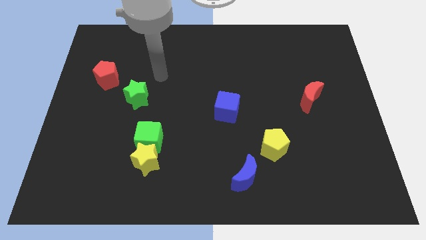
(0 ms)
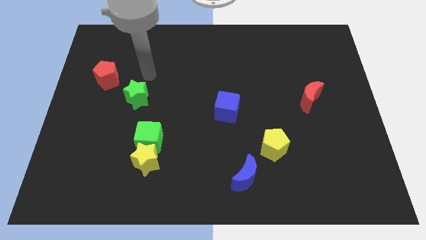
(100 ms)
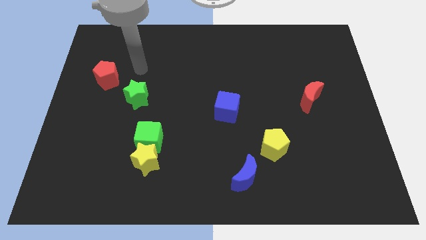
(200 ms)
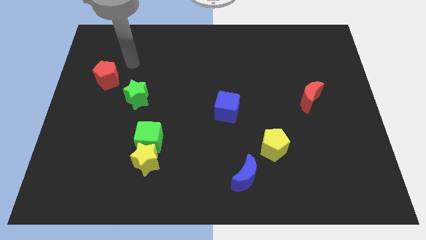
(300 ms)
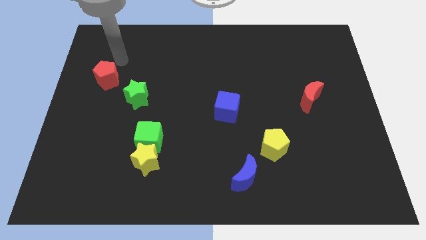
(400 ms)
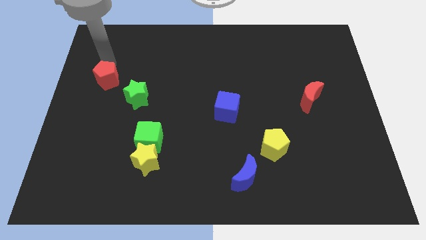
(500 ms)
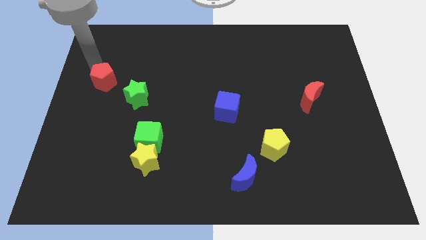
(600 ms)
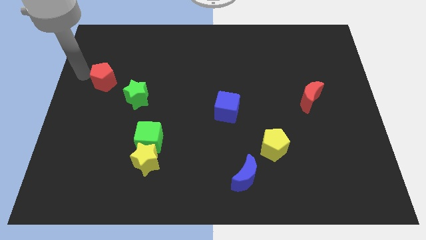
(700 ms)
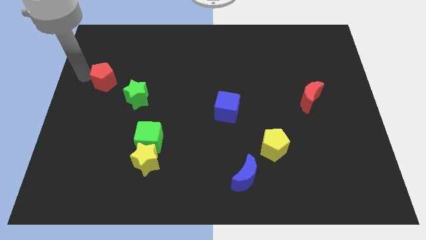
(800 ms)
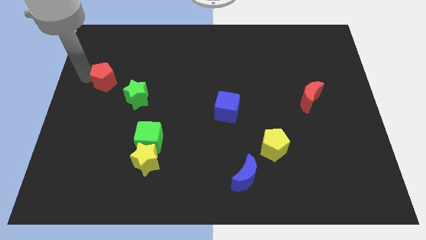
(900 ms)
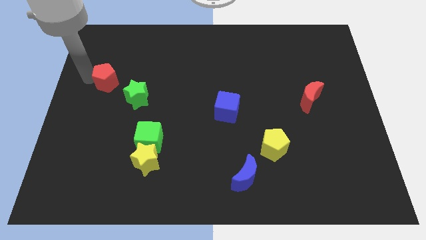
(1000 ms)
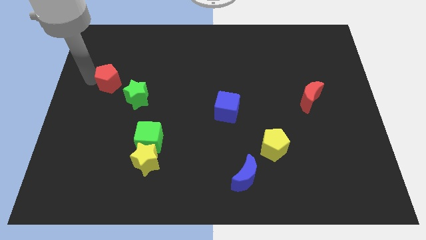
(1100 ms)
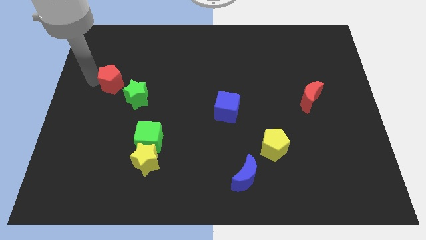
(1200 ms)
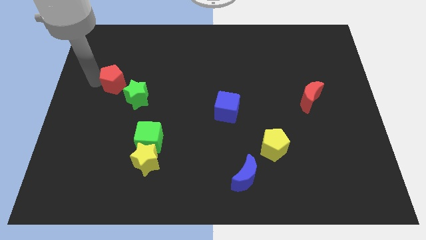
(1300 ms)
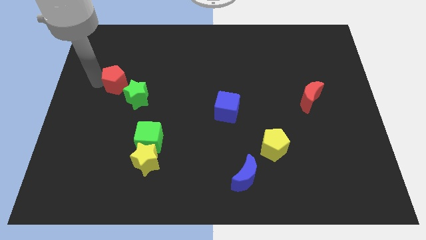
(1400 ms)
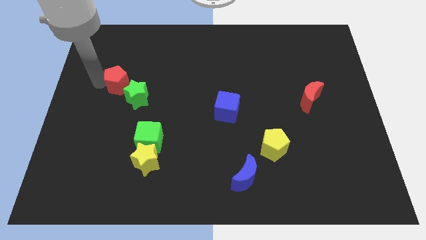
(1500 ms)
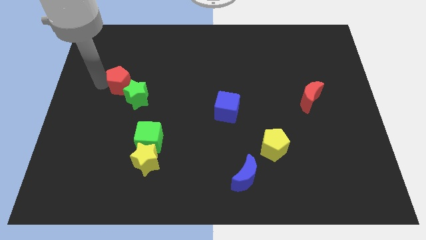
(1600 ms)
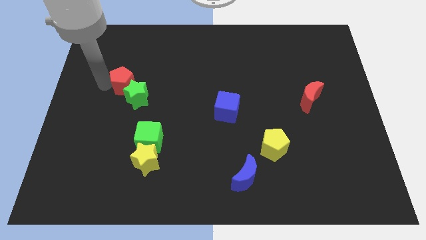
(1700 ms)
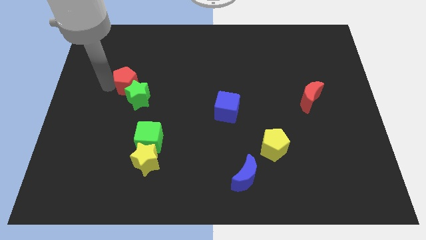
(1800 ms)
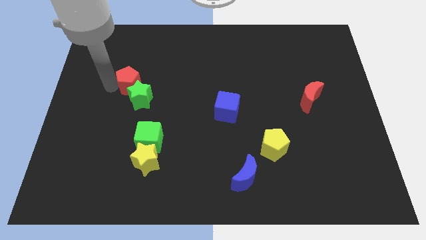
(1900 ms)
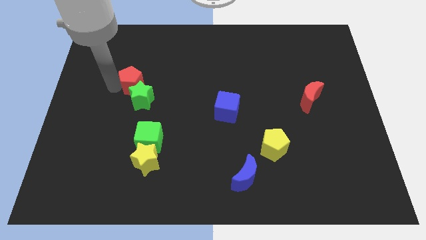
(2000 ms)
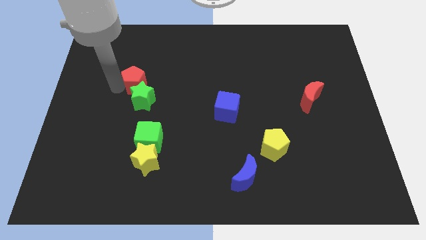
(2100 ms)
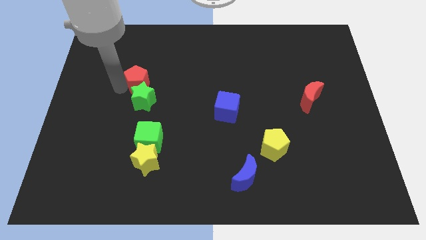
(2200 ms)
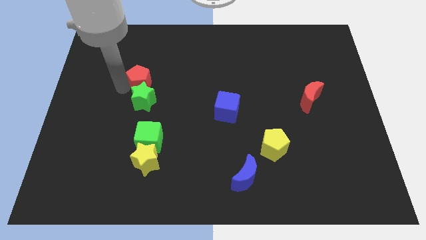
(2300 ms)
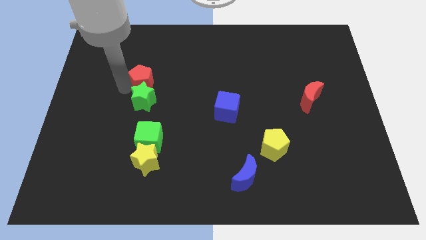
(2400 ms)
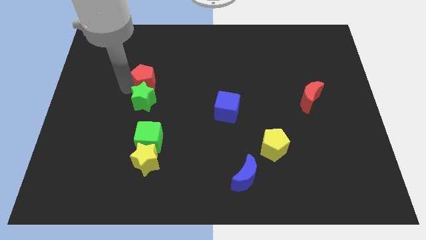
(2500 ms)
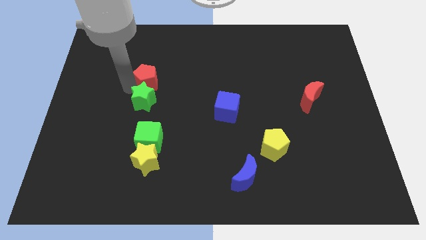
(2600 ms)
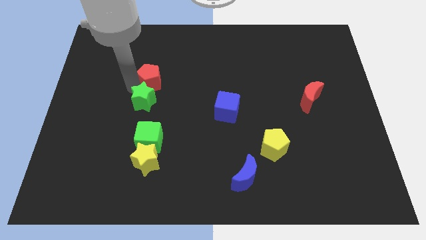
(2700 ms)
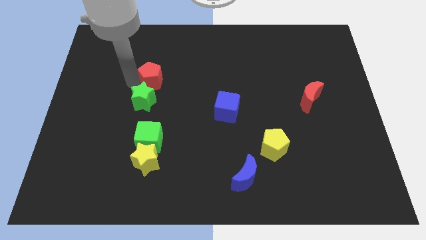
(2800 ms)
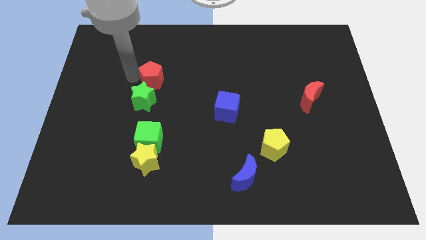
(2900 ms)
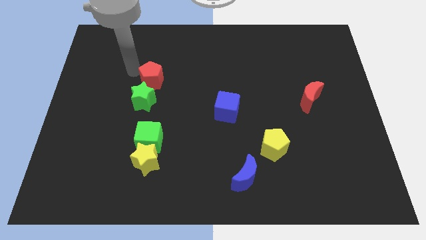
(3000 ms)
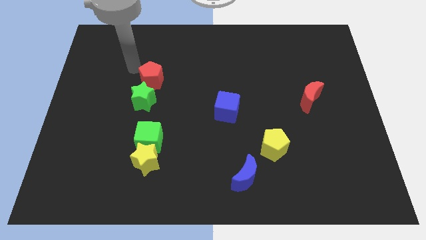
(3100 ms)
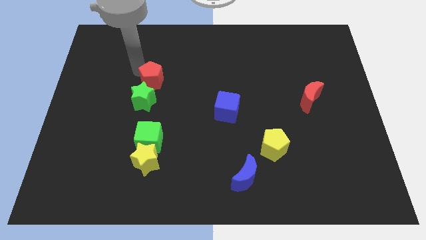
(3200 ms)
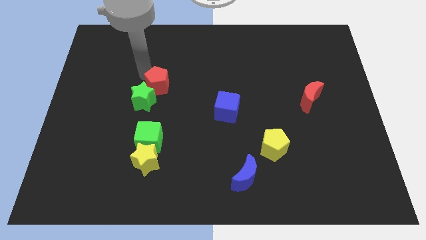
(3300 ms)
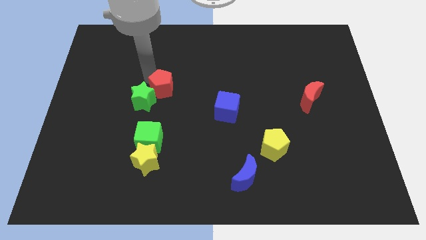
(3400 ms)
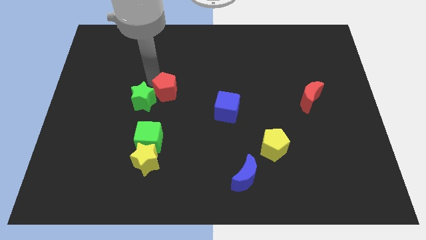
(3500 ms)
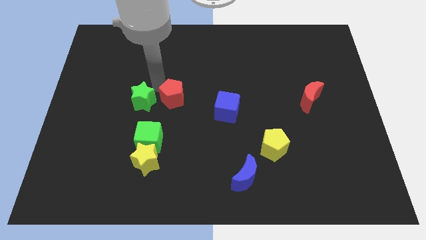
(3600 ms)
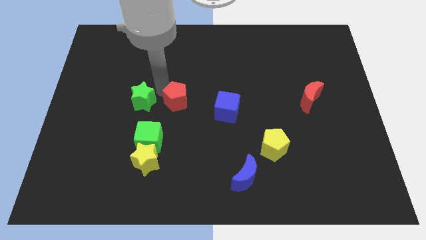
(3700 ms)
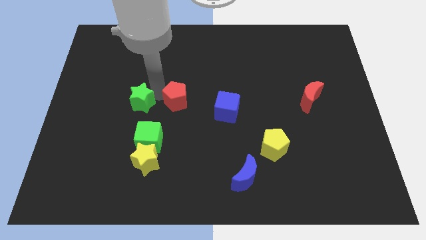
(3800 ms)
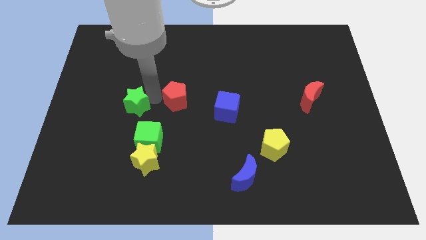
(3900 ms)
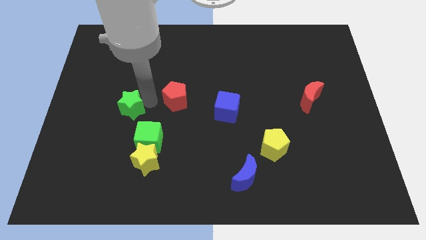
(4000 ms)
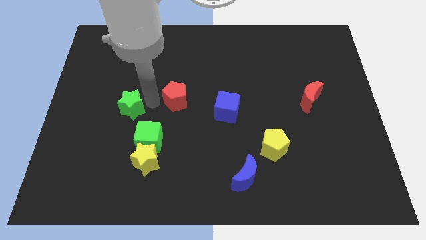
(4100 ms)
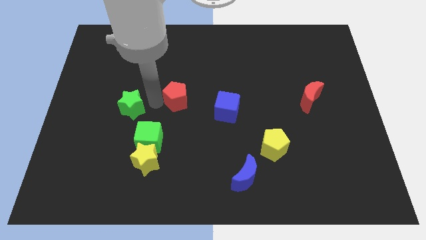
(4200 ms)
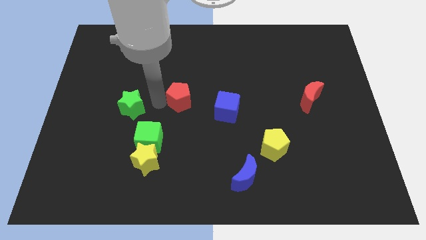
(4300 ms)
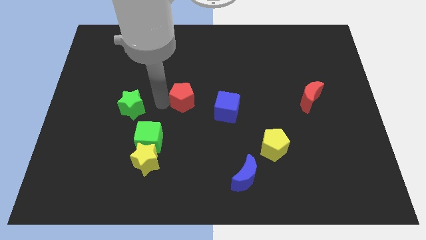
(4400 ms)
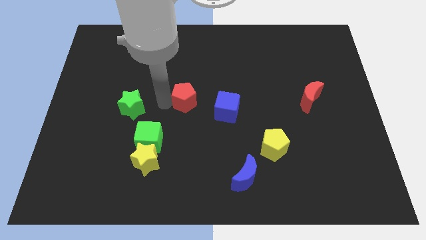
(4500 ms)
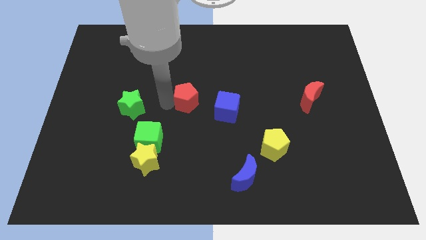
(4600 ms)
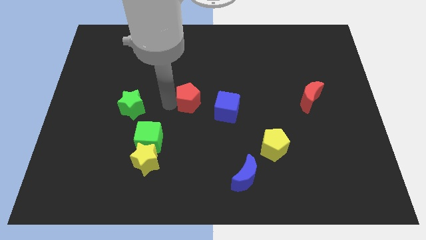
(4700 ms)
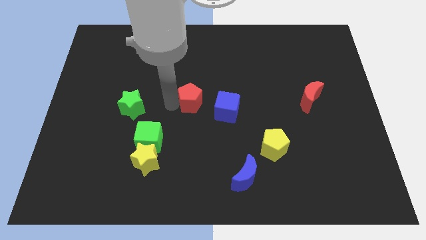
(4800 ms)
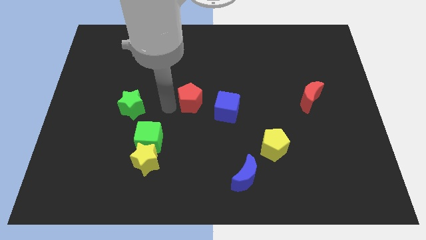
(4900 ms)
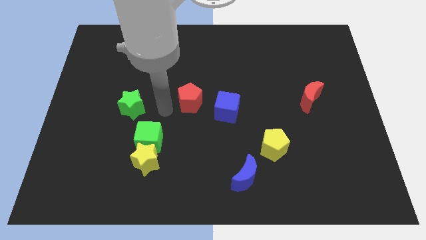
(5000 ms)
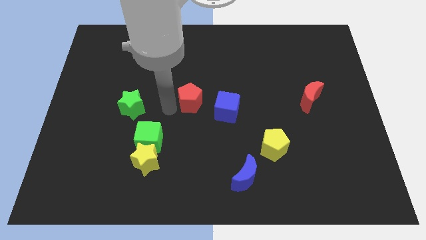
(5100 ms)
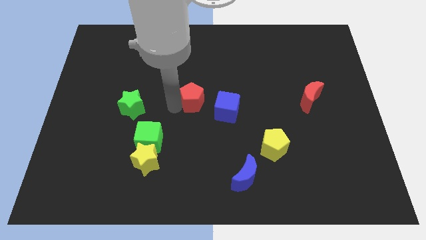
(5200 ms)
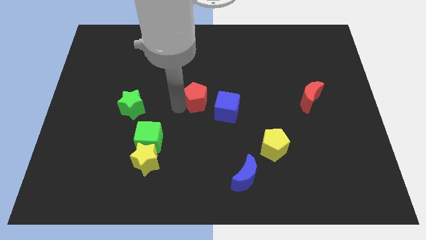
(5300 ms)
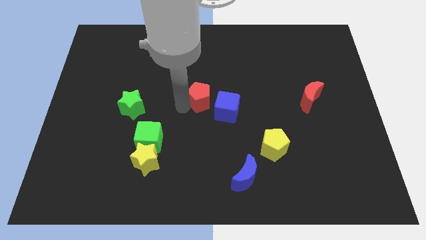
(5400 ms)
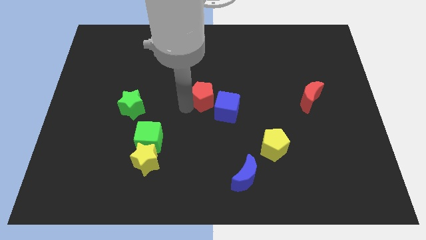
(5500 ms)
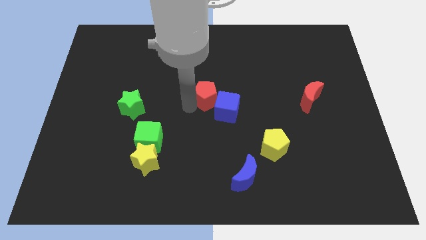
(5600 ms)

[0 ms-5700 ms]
push the red pentagon next to the blue cube

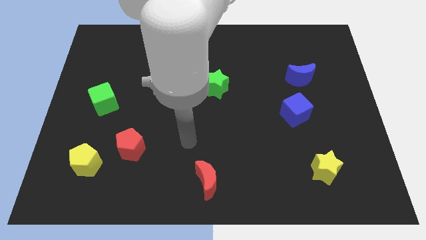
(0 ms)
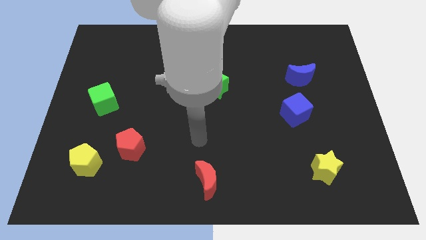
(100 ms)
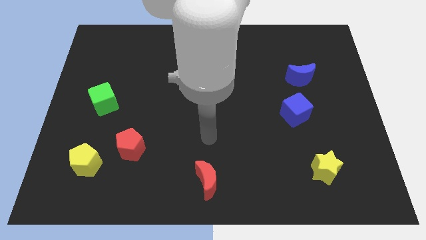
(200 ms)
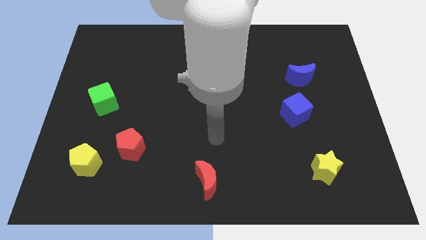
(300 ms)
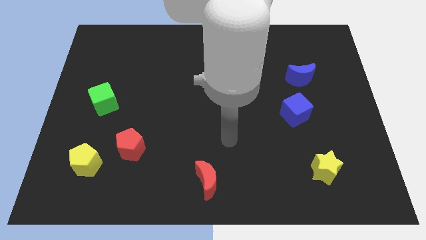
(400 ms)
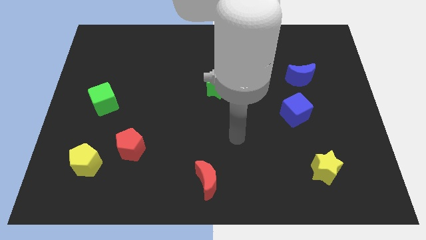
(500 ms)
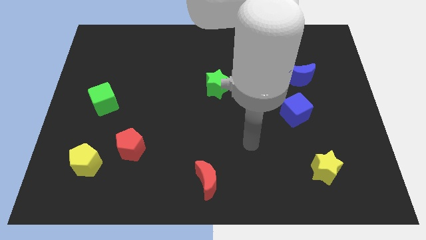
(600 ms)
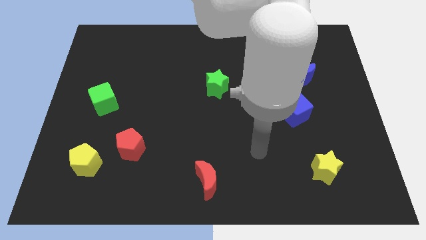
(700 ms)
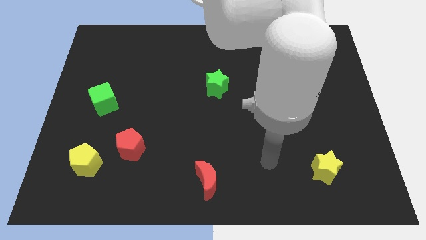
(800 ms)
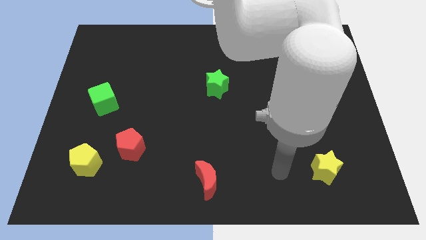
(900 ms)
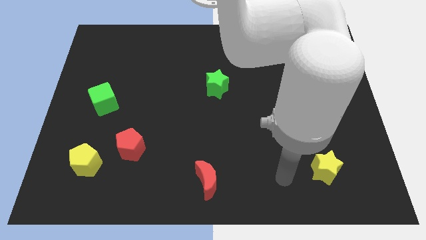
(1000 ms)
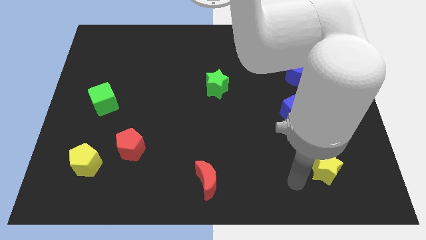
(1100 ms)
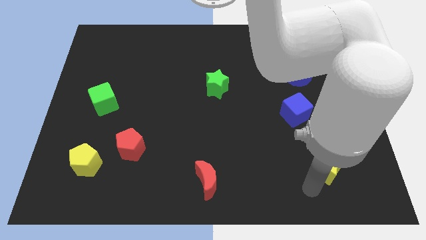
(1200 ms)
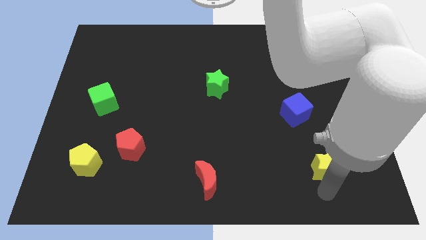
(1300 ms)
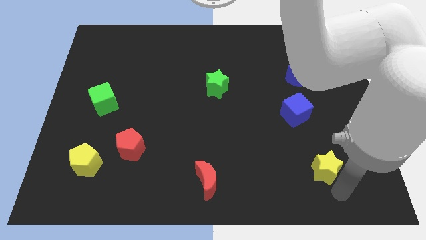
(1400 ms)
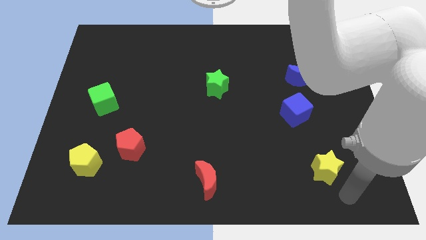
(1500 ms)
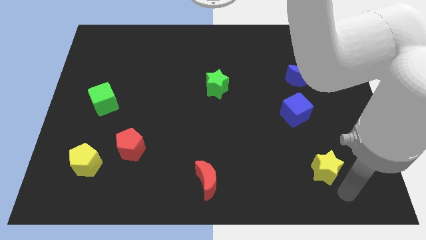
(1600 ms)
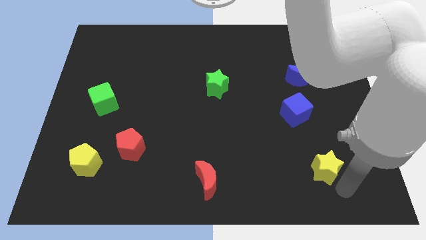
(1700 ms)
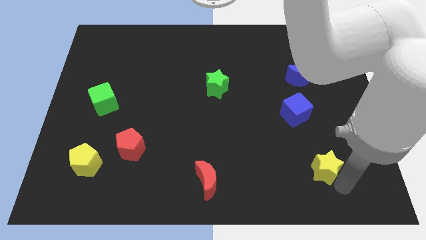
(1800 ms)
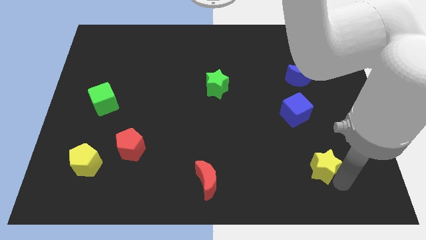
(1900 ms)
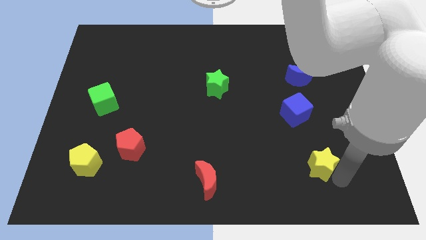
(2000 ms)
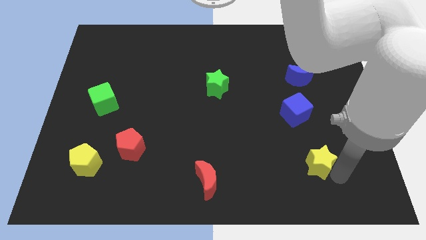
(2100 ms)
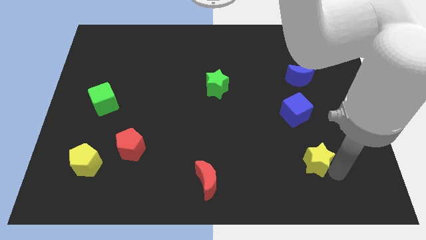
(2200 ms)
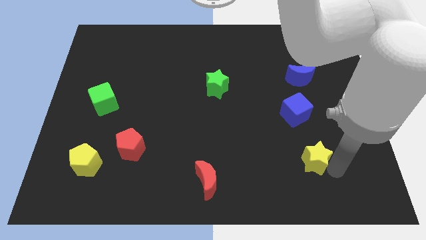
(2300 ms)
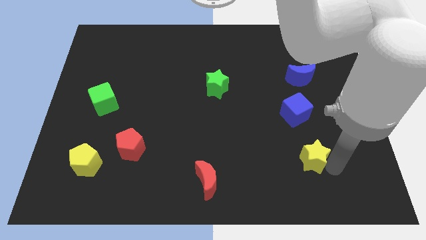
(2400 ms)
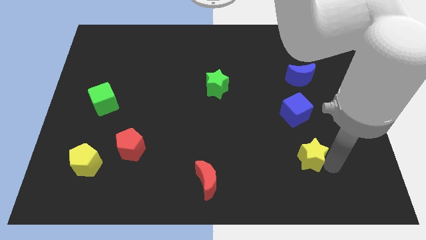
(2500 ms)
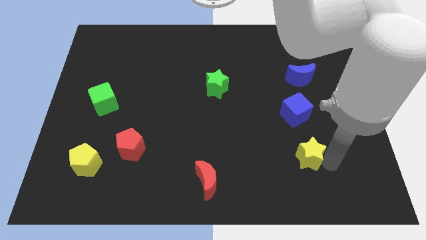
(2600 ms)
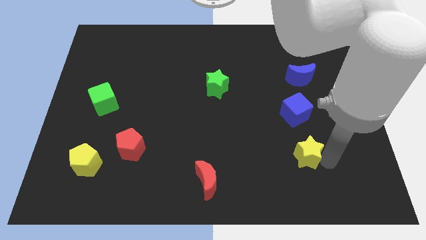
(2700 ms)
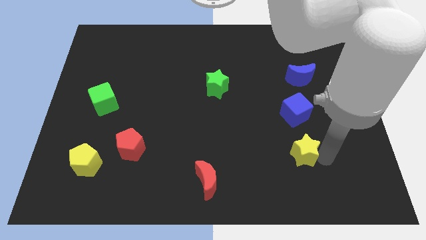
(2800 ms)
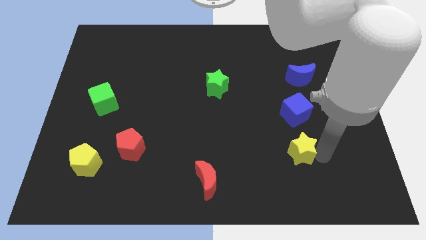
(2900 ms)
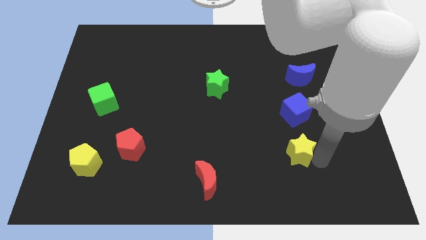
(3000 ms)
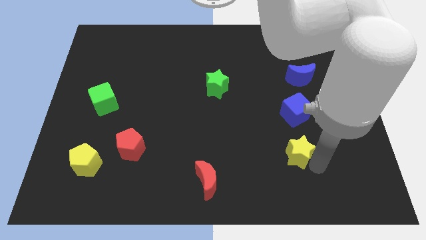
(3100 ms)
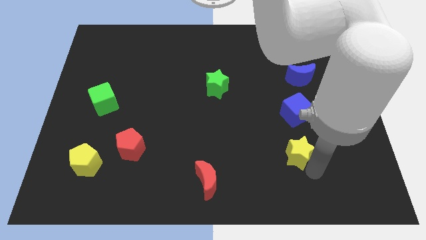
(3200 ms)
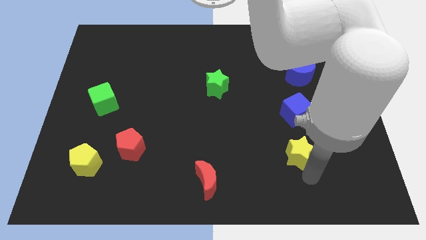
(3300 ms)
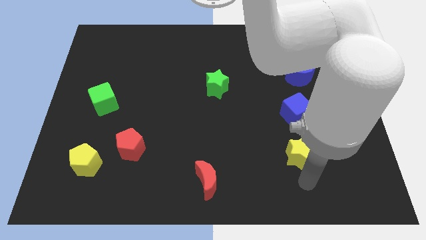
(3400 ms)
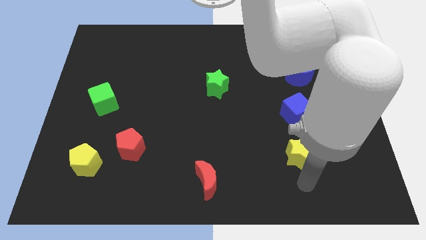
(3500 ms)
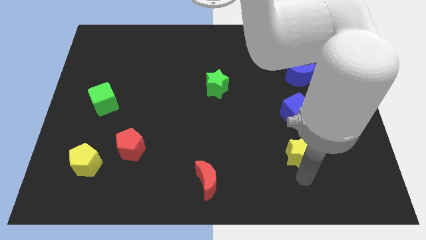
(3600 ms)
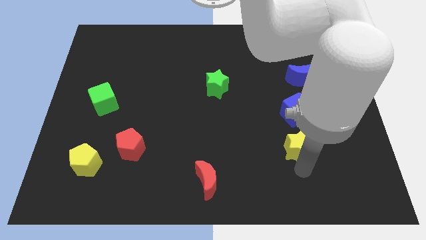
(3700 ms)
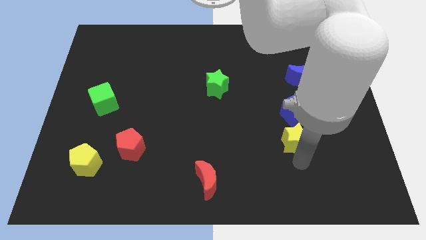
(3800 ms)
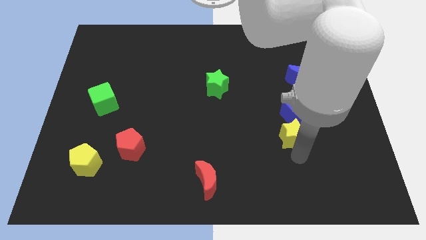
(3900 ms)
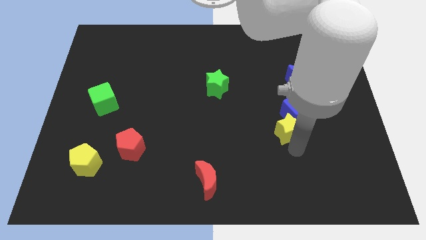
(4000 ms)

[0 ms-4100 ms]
slide the yellow star to the blue cube
